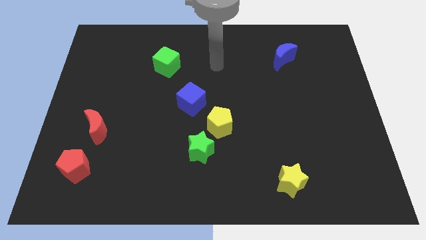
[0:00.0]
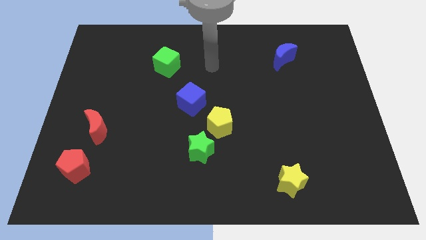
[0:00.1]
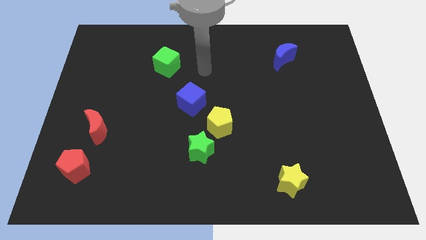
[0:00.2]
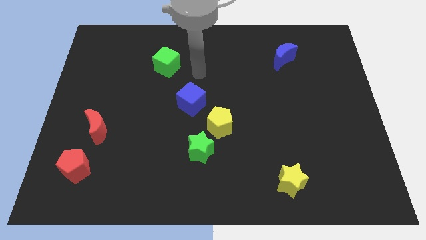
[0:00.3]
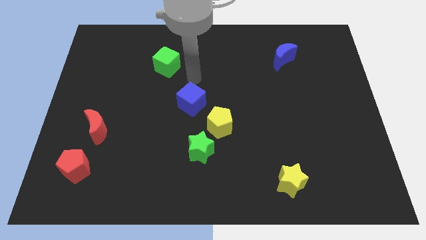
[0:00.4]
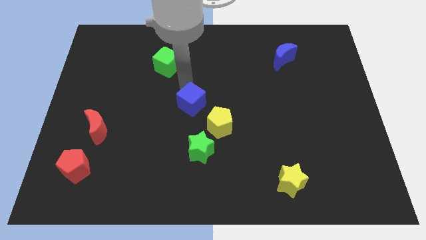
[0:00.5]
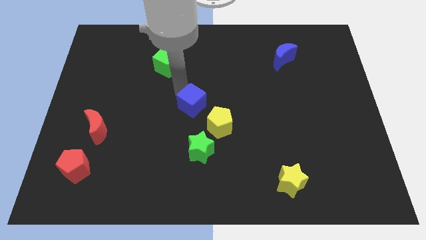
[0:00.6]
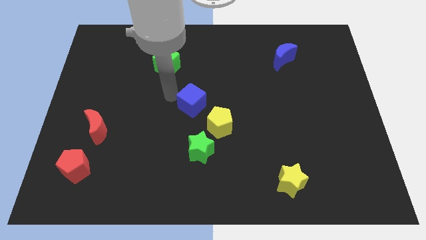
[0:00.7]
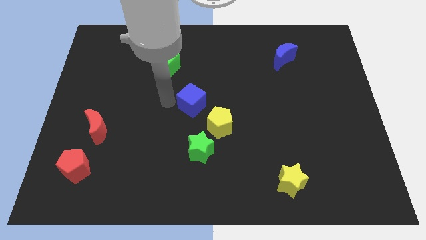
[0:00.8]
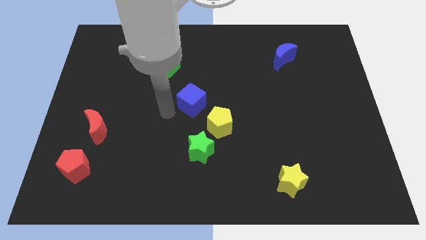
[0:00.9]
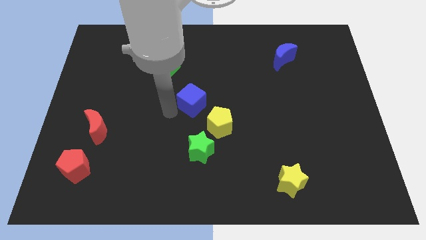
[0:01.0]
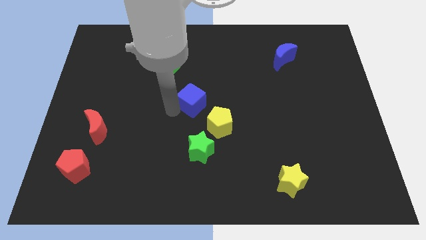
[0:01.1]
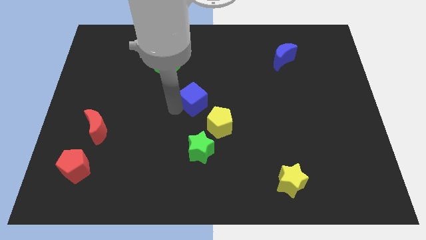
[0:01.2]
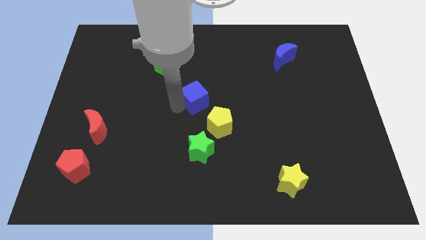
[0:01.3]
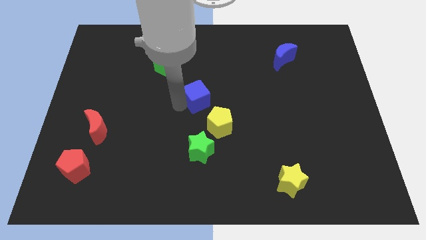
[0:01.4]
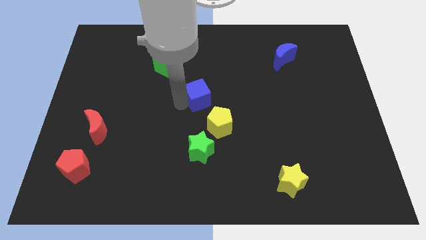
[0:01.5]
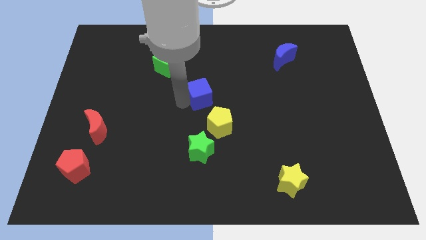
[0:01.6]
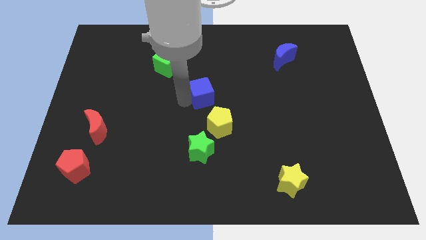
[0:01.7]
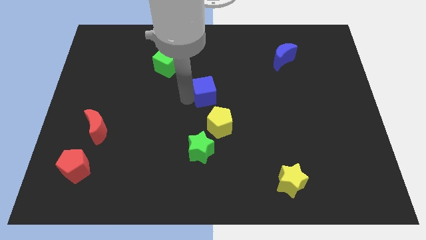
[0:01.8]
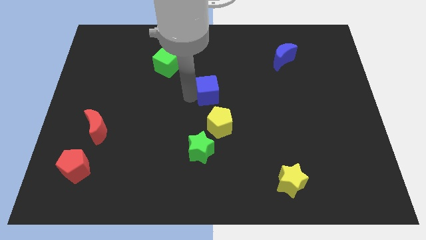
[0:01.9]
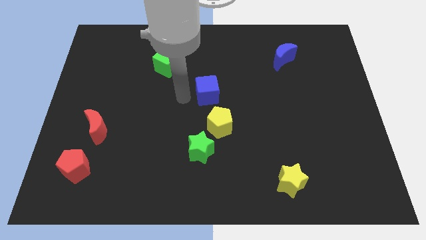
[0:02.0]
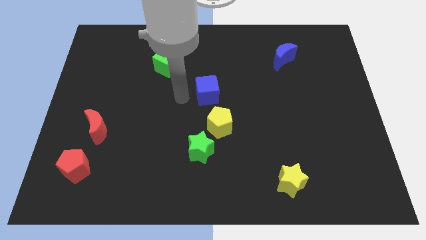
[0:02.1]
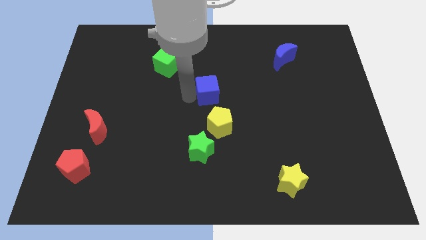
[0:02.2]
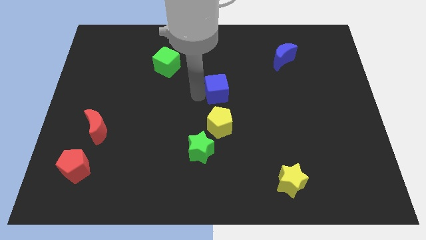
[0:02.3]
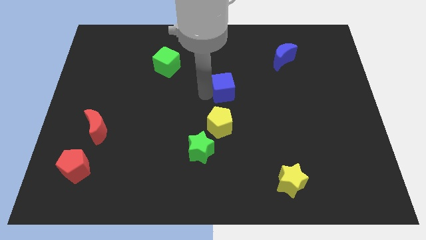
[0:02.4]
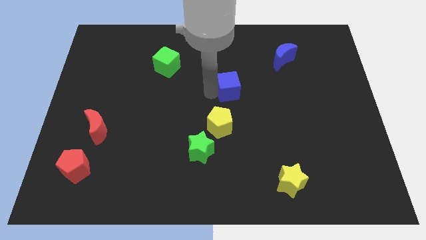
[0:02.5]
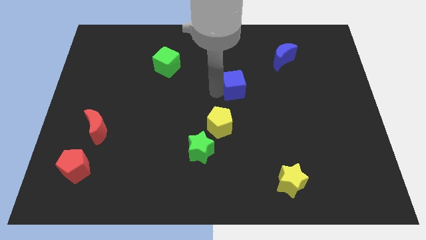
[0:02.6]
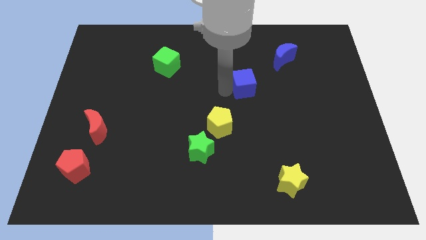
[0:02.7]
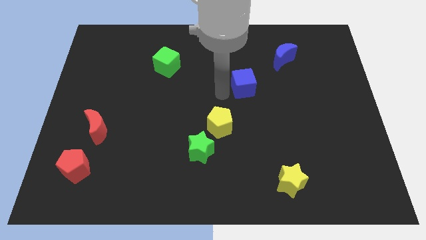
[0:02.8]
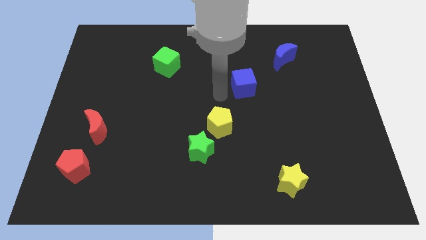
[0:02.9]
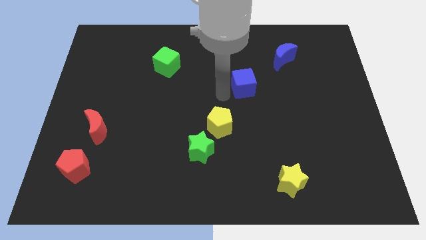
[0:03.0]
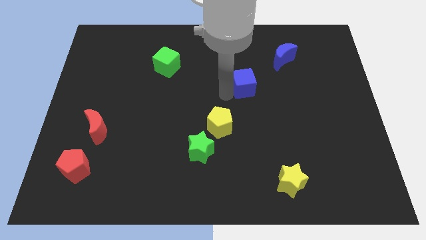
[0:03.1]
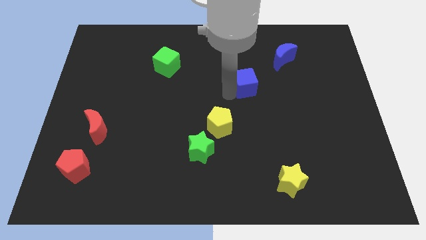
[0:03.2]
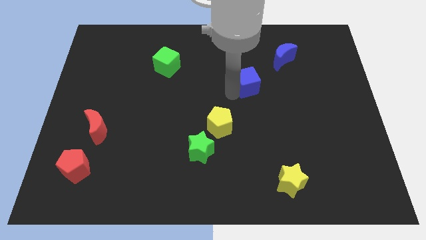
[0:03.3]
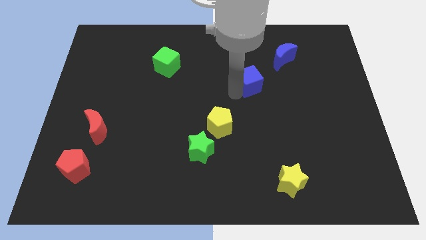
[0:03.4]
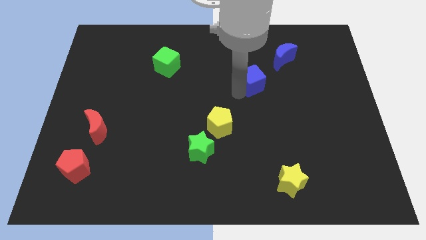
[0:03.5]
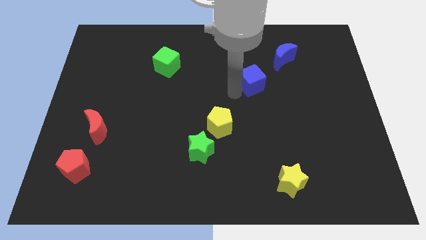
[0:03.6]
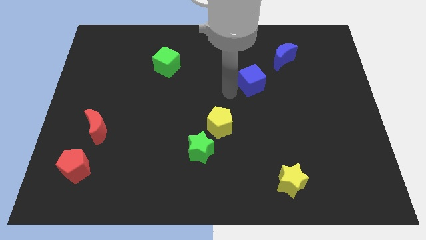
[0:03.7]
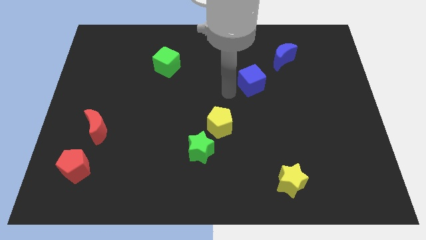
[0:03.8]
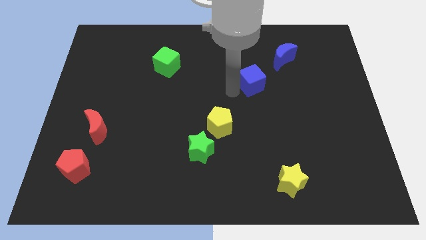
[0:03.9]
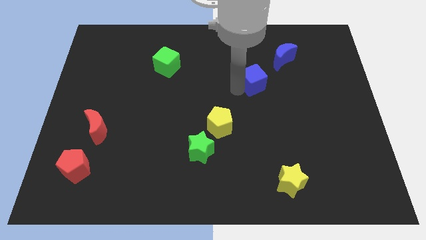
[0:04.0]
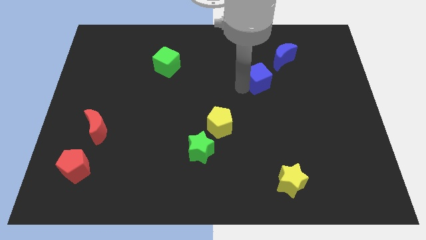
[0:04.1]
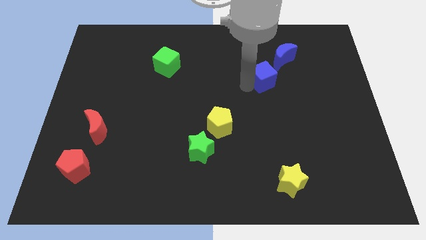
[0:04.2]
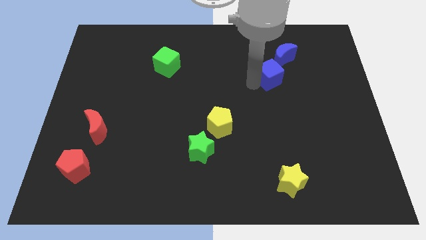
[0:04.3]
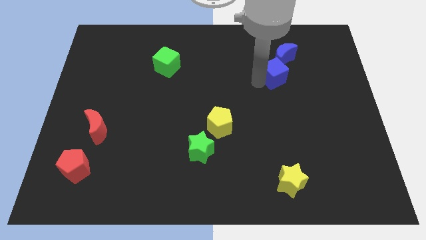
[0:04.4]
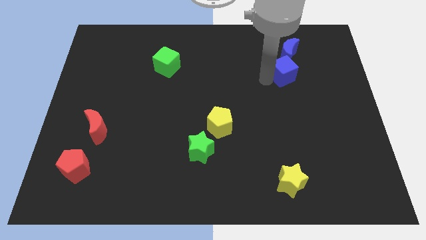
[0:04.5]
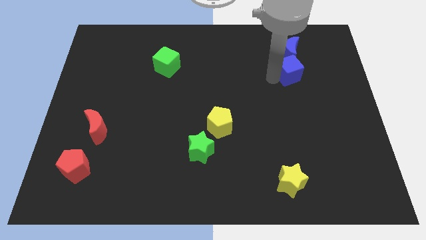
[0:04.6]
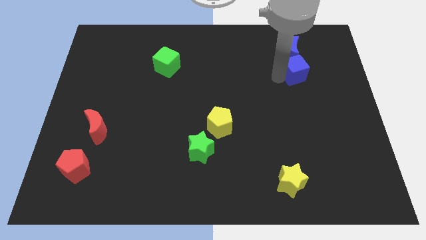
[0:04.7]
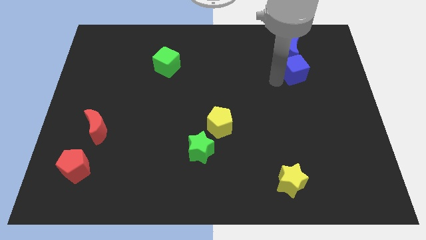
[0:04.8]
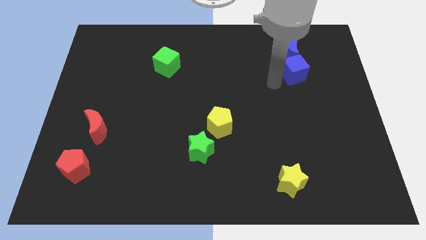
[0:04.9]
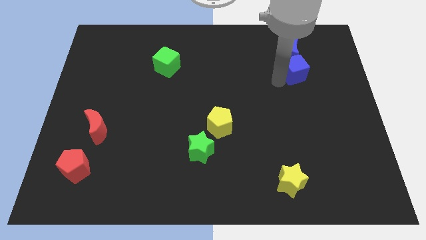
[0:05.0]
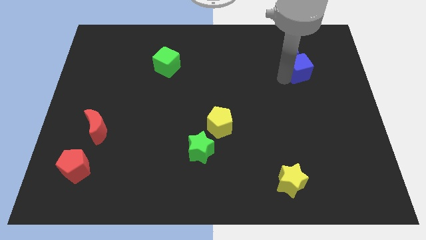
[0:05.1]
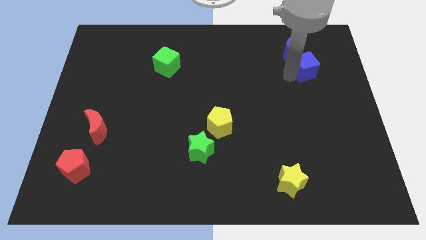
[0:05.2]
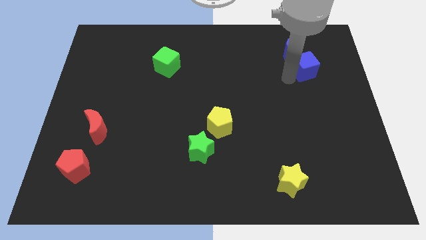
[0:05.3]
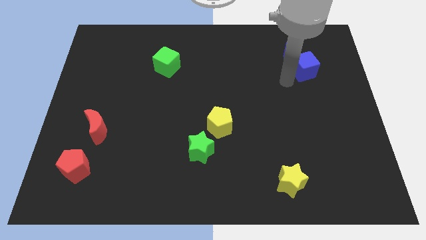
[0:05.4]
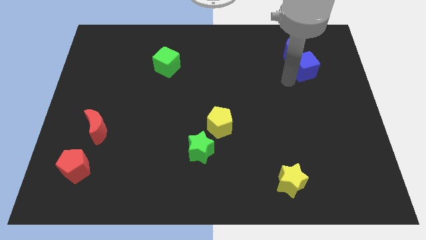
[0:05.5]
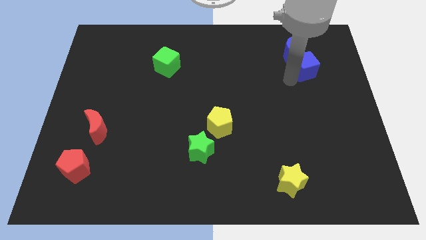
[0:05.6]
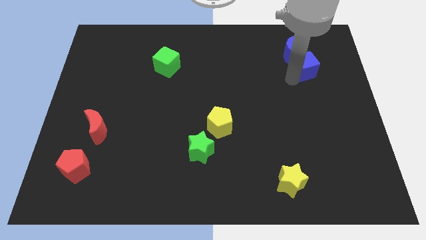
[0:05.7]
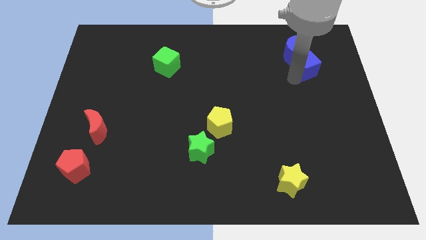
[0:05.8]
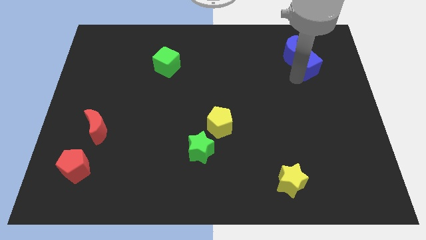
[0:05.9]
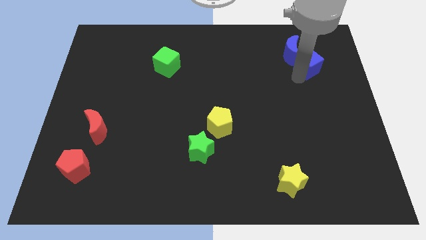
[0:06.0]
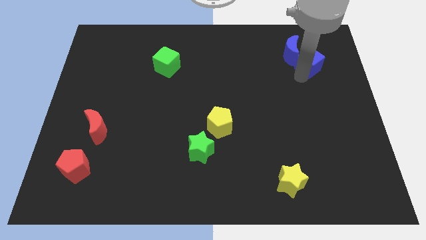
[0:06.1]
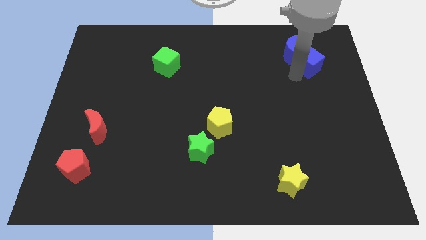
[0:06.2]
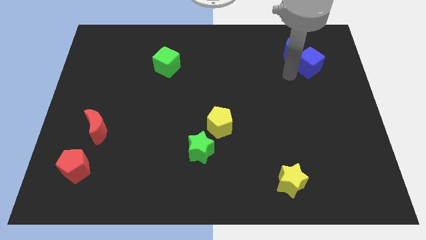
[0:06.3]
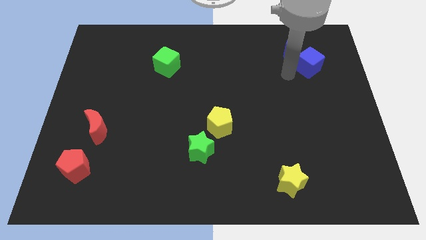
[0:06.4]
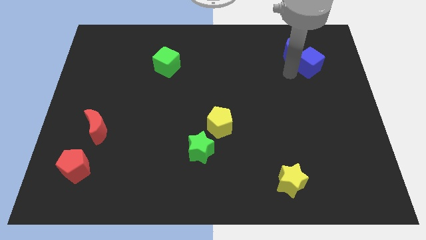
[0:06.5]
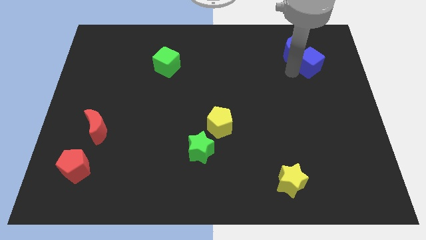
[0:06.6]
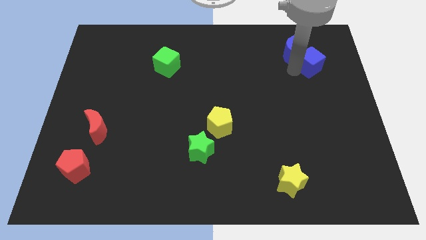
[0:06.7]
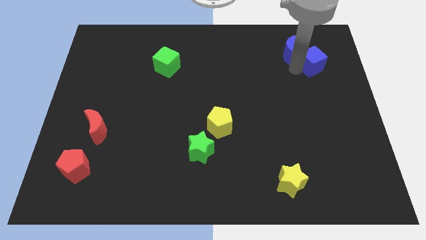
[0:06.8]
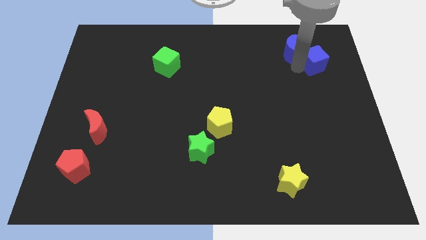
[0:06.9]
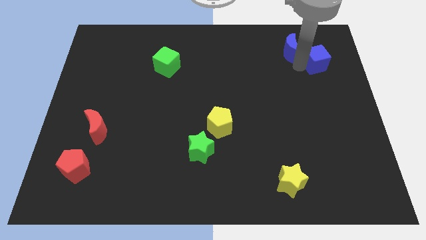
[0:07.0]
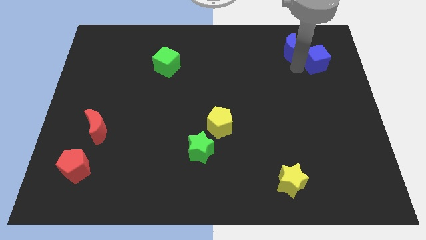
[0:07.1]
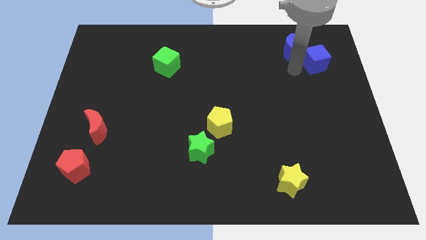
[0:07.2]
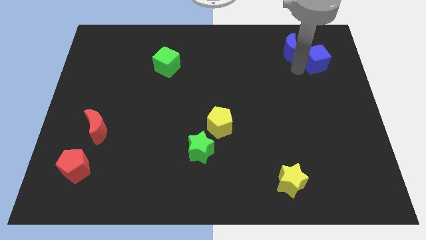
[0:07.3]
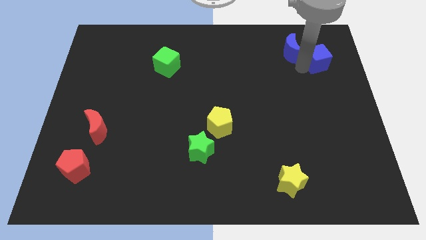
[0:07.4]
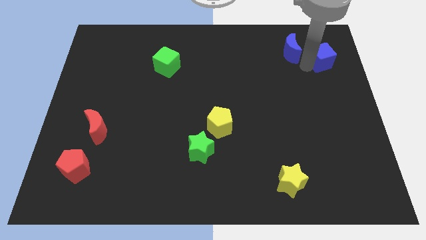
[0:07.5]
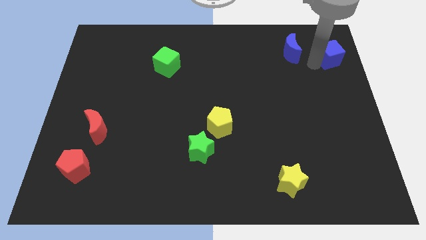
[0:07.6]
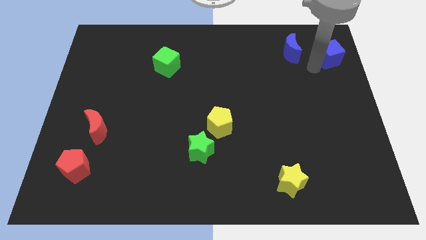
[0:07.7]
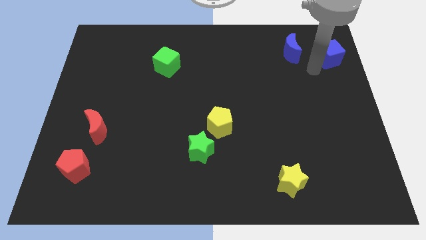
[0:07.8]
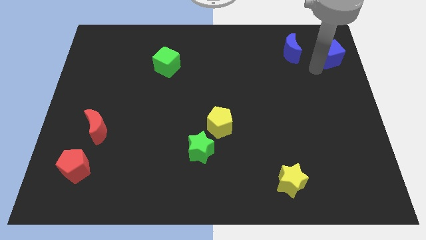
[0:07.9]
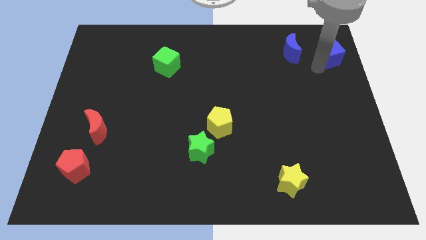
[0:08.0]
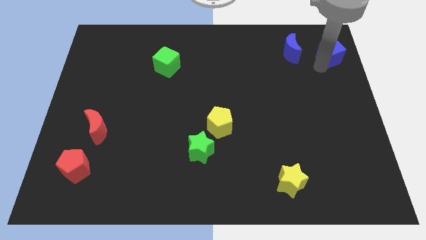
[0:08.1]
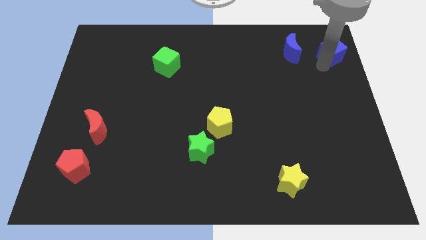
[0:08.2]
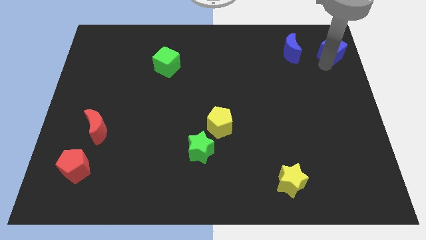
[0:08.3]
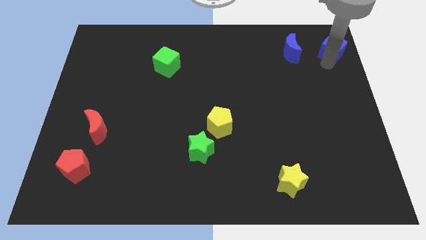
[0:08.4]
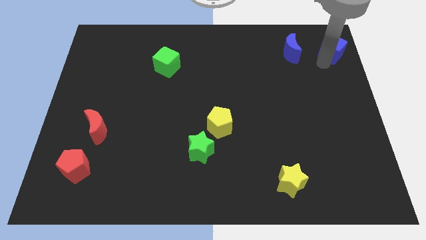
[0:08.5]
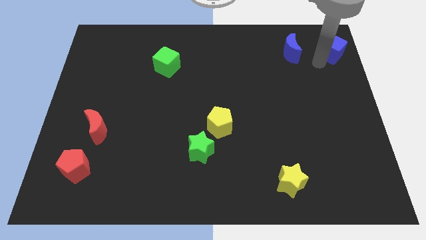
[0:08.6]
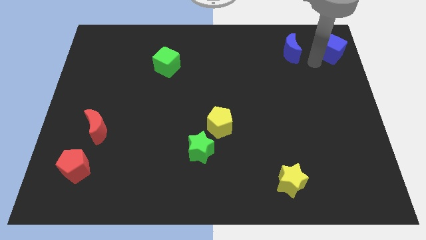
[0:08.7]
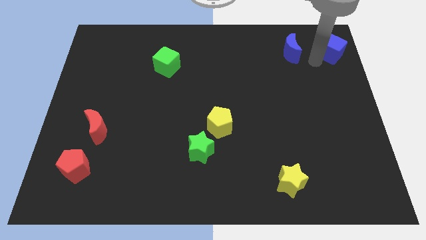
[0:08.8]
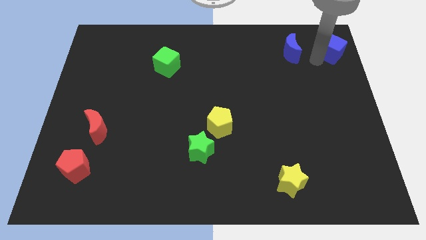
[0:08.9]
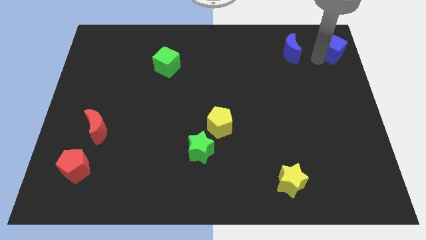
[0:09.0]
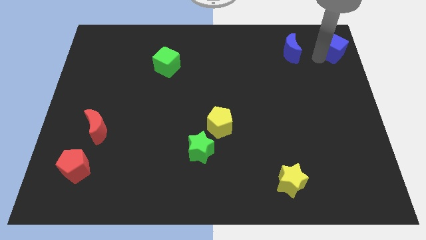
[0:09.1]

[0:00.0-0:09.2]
slide the blue cube to the top right
